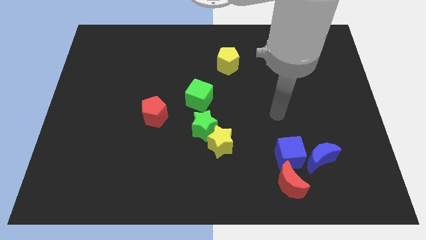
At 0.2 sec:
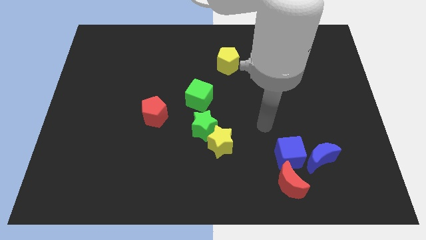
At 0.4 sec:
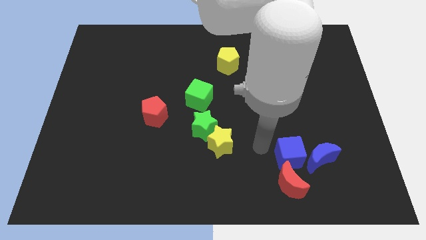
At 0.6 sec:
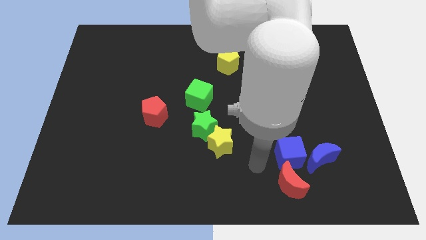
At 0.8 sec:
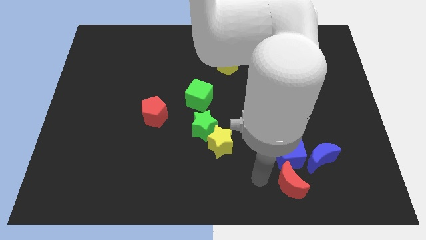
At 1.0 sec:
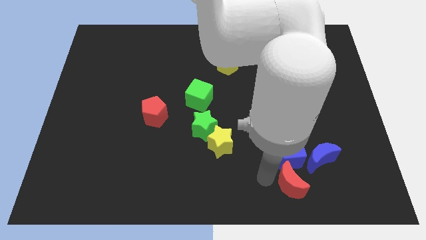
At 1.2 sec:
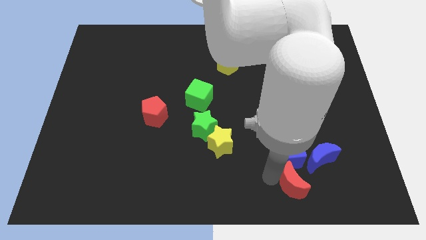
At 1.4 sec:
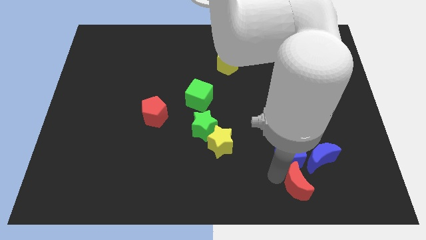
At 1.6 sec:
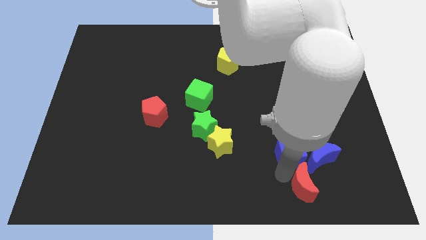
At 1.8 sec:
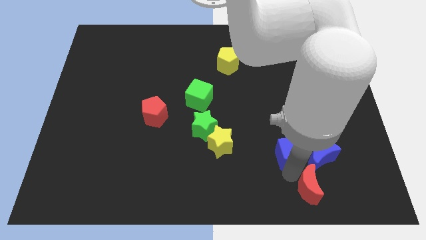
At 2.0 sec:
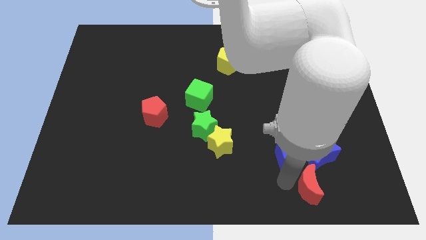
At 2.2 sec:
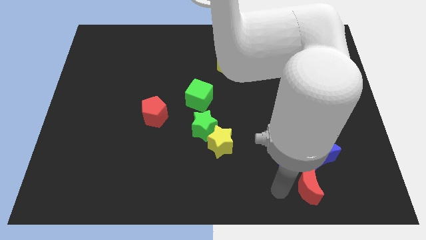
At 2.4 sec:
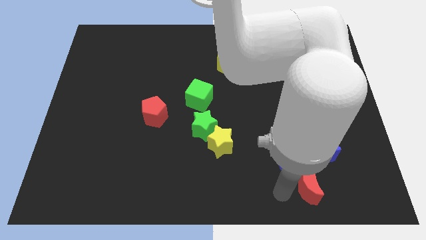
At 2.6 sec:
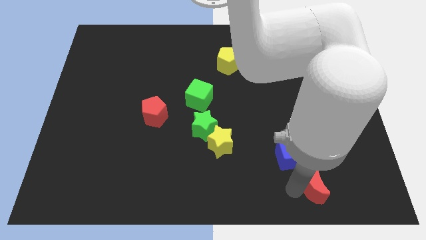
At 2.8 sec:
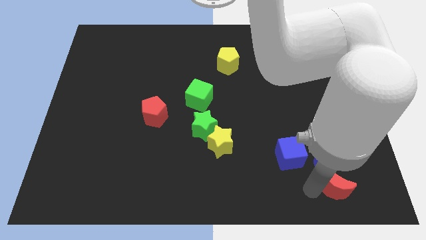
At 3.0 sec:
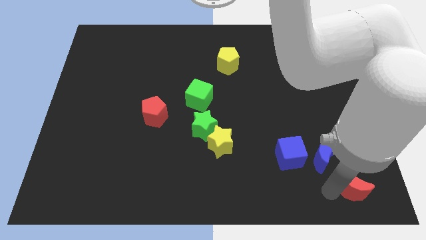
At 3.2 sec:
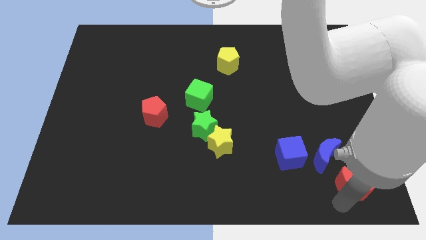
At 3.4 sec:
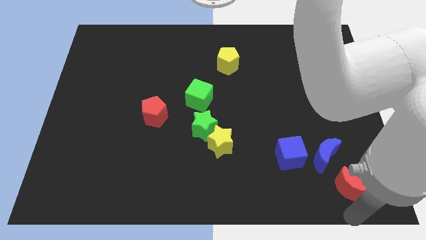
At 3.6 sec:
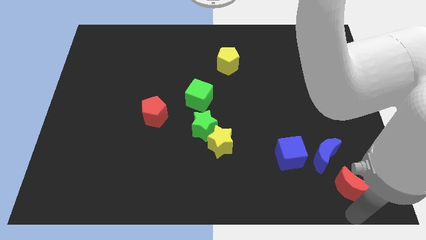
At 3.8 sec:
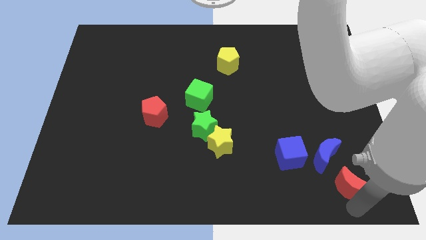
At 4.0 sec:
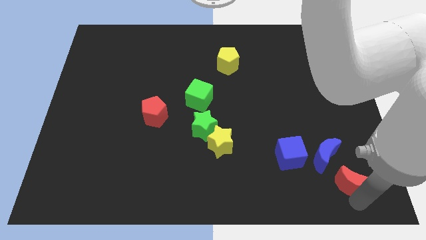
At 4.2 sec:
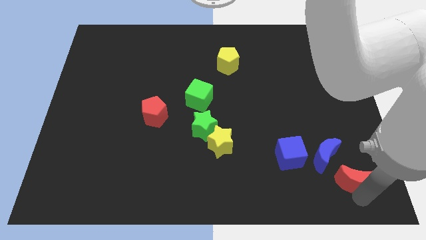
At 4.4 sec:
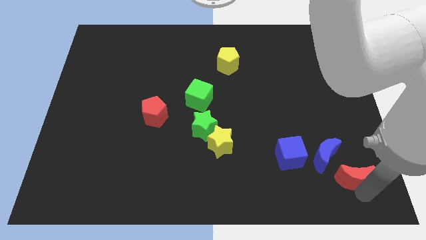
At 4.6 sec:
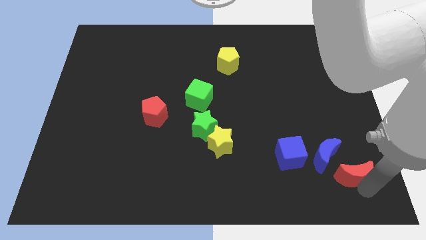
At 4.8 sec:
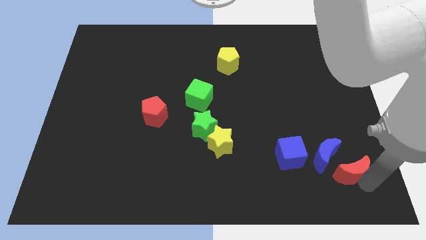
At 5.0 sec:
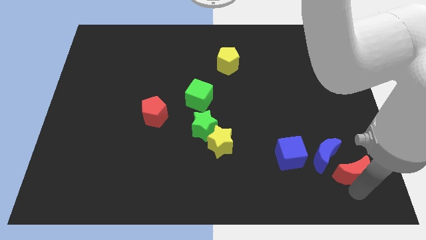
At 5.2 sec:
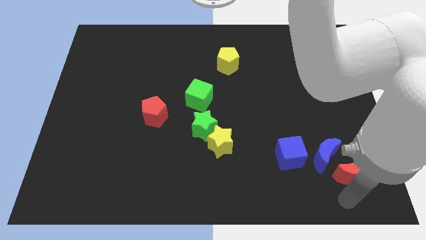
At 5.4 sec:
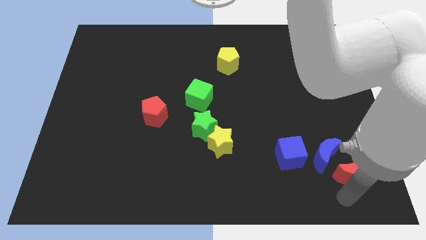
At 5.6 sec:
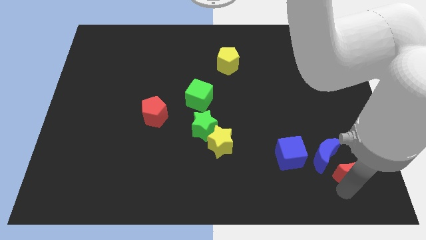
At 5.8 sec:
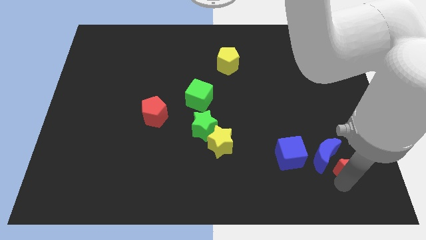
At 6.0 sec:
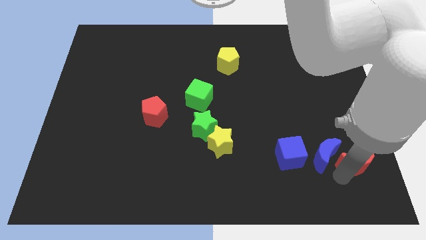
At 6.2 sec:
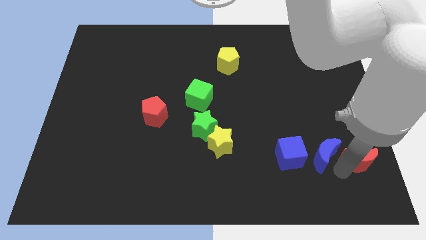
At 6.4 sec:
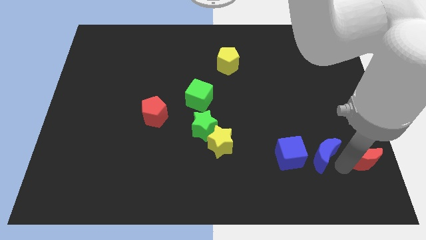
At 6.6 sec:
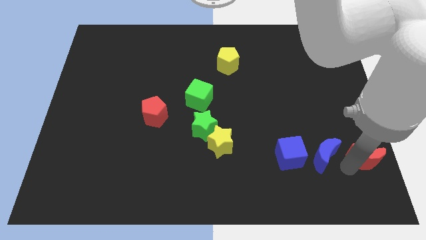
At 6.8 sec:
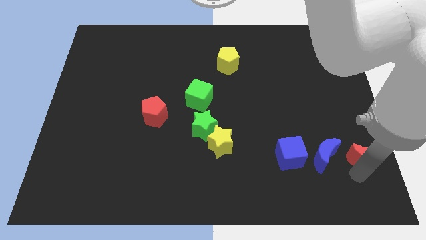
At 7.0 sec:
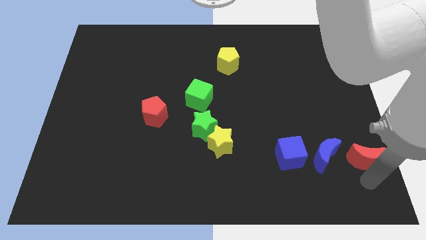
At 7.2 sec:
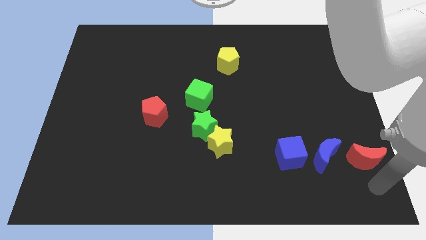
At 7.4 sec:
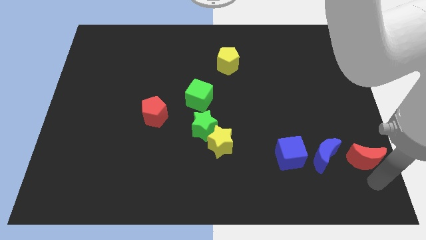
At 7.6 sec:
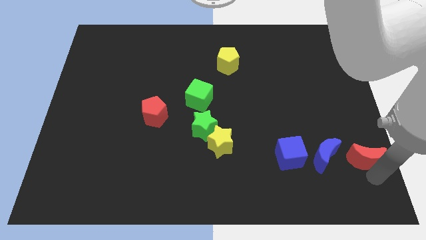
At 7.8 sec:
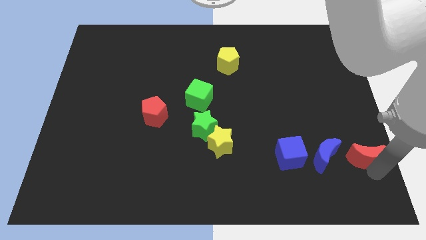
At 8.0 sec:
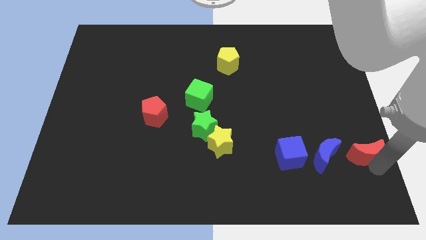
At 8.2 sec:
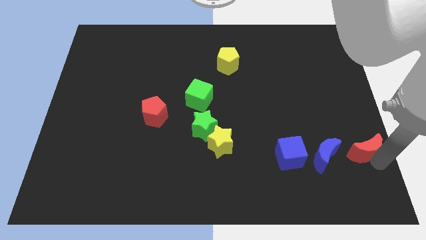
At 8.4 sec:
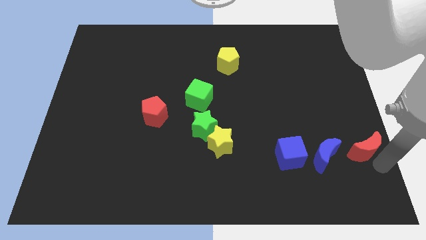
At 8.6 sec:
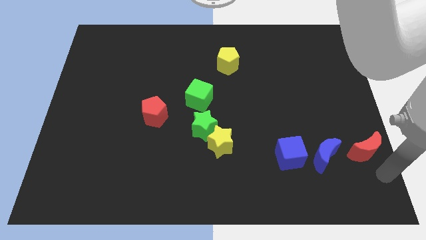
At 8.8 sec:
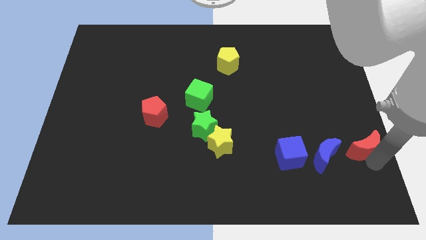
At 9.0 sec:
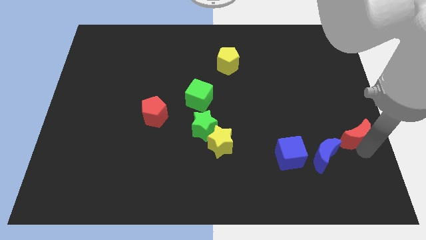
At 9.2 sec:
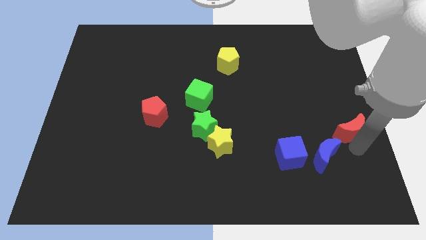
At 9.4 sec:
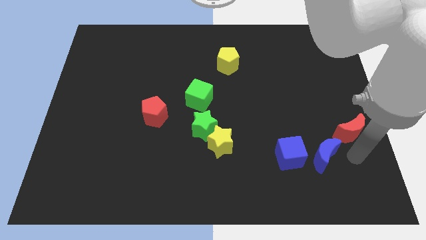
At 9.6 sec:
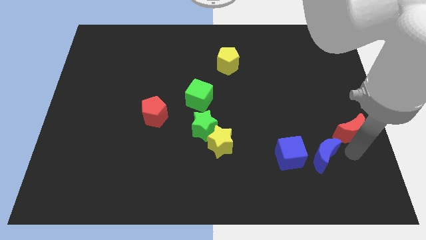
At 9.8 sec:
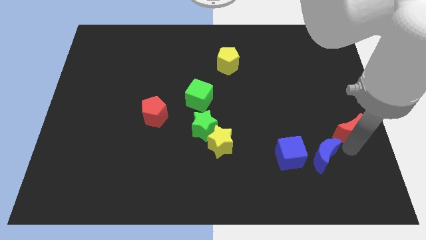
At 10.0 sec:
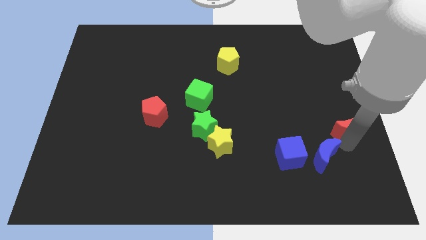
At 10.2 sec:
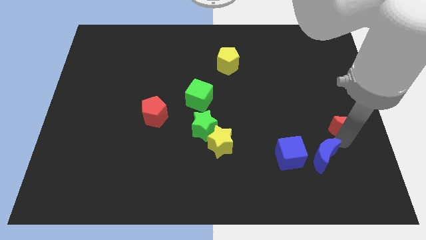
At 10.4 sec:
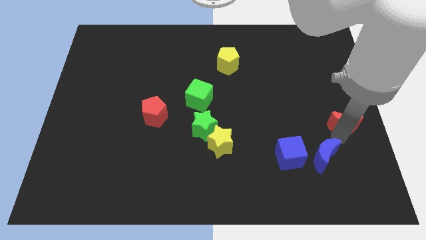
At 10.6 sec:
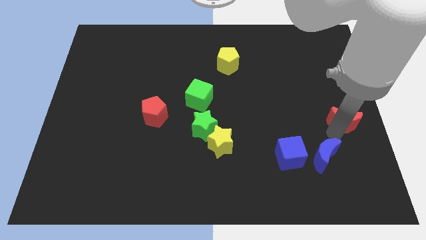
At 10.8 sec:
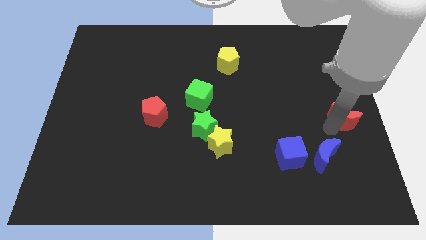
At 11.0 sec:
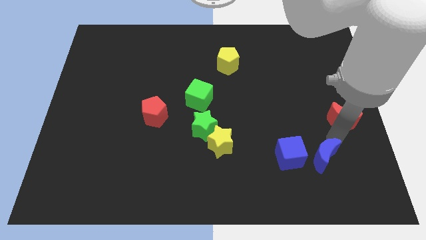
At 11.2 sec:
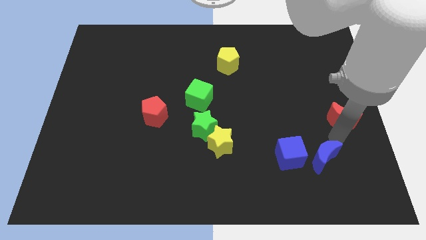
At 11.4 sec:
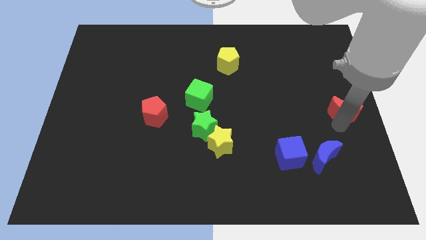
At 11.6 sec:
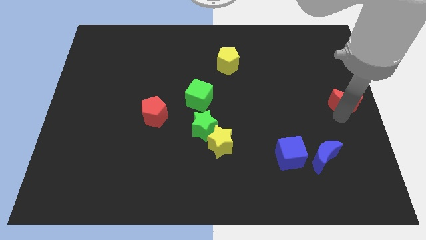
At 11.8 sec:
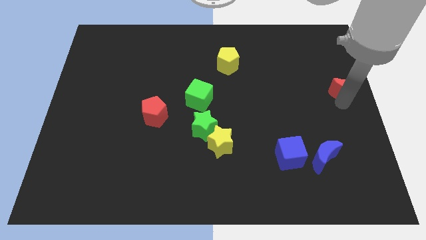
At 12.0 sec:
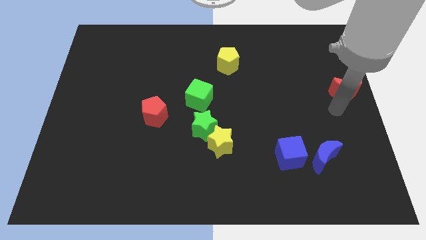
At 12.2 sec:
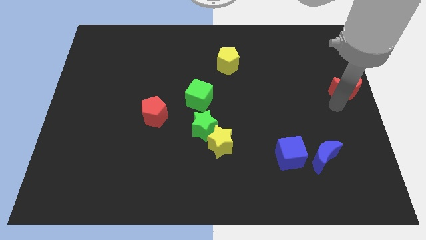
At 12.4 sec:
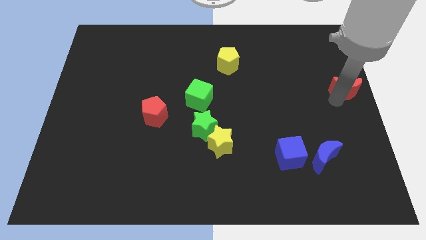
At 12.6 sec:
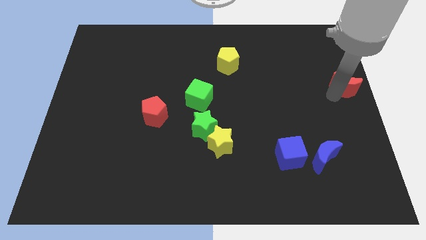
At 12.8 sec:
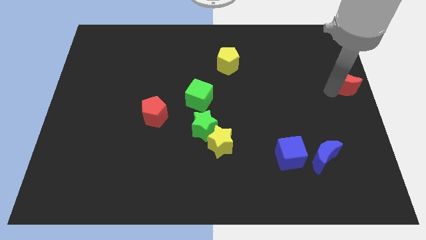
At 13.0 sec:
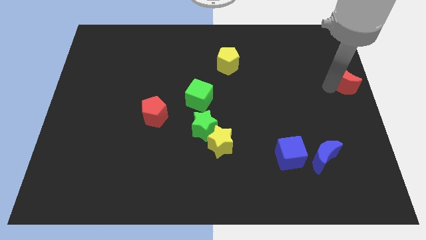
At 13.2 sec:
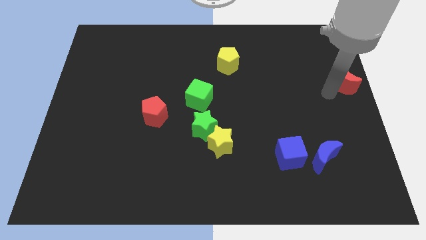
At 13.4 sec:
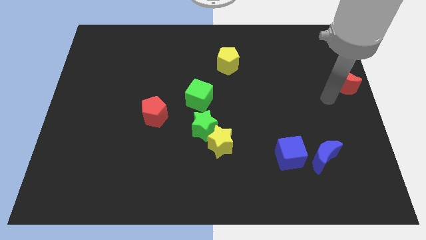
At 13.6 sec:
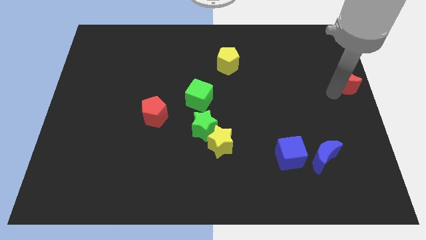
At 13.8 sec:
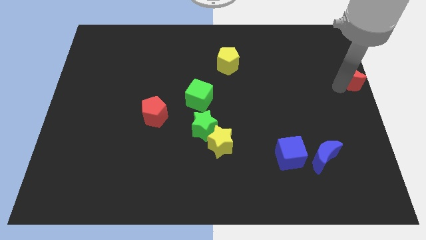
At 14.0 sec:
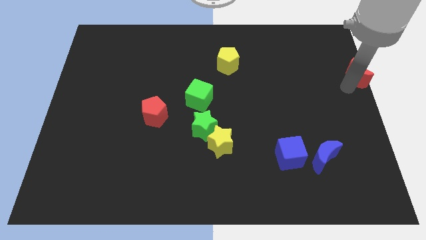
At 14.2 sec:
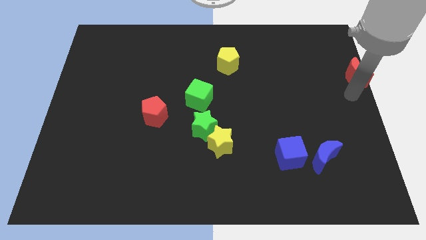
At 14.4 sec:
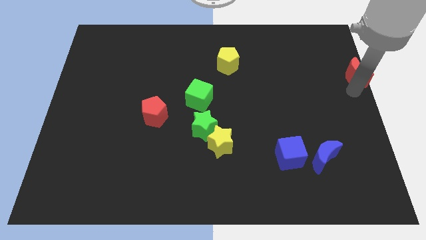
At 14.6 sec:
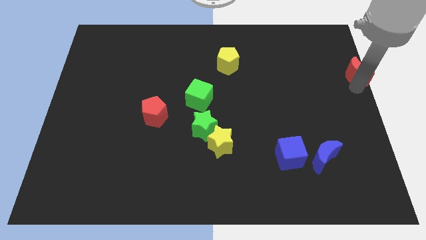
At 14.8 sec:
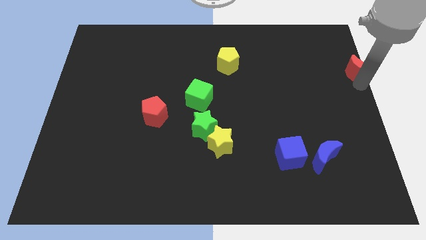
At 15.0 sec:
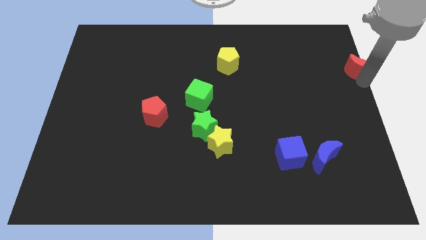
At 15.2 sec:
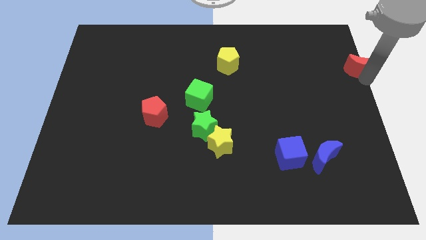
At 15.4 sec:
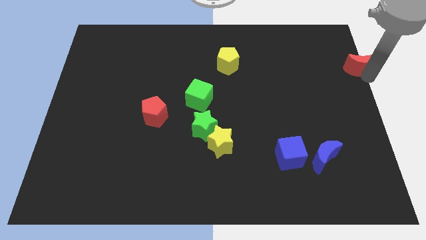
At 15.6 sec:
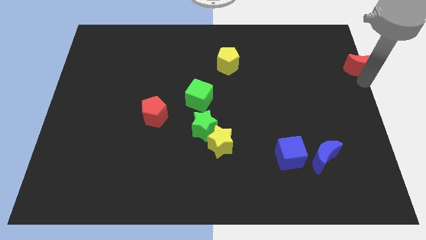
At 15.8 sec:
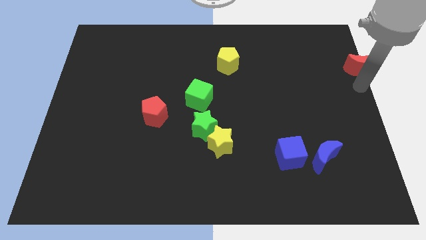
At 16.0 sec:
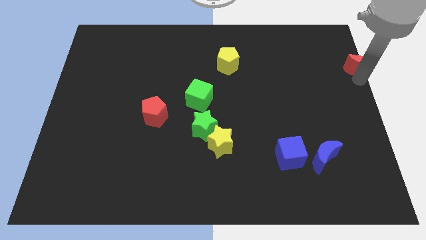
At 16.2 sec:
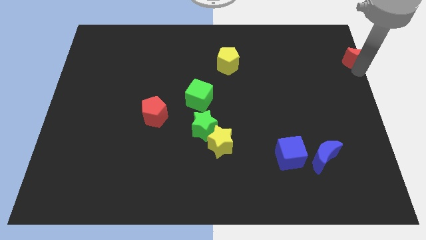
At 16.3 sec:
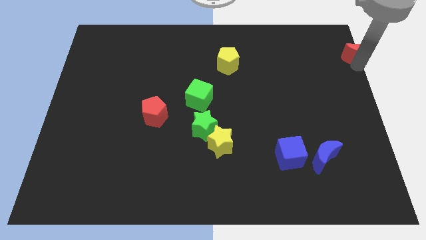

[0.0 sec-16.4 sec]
move the red moon to the top right of the board
